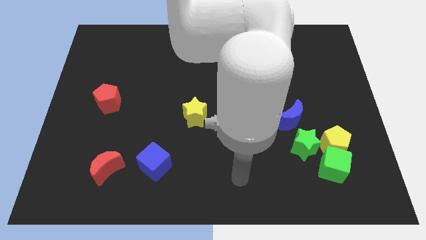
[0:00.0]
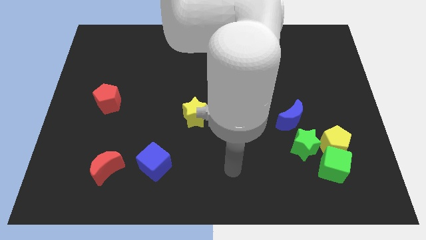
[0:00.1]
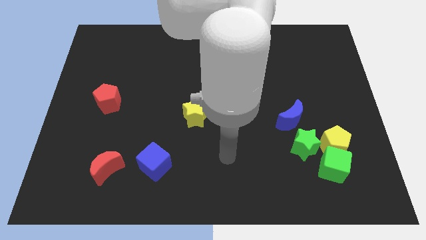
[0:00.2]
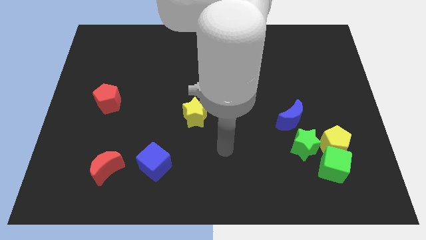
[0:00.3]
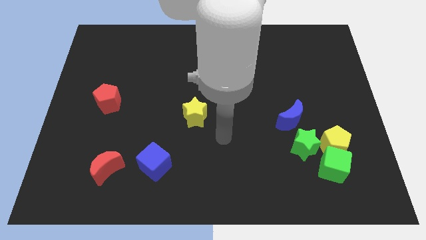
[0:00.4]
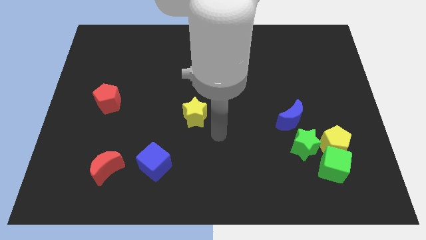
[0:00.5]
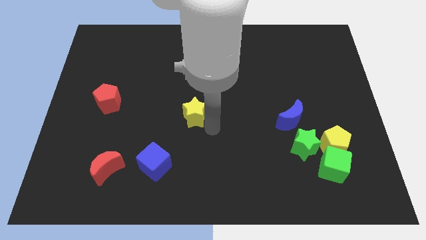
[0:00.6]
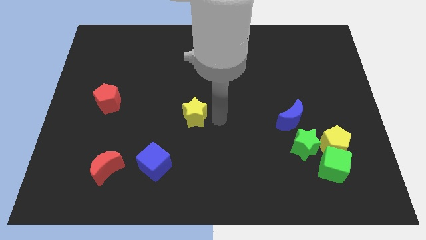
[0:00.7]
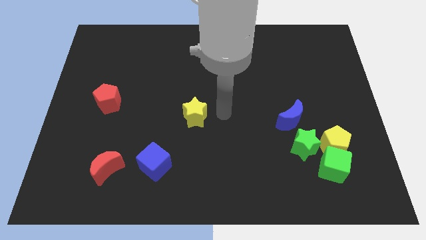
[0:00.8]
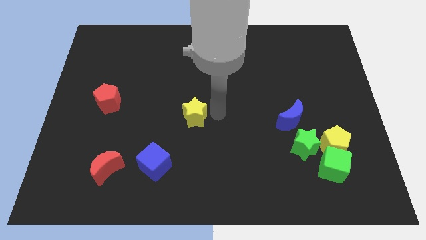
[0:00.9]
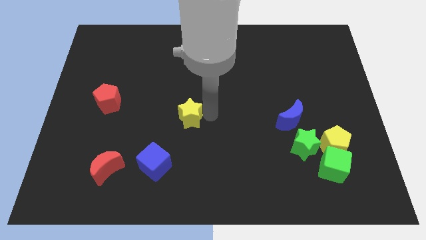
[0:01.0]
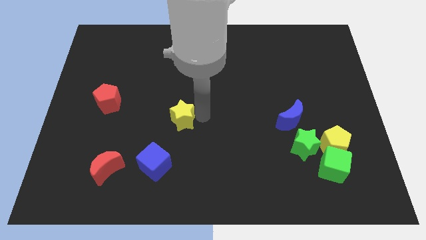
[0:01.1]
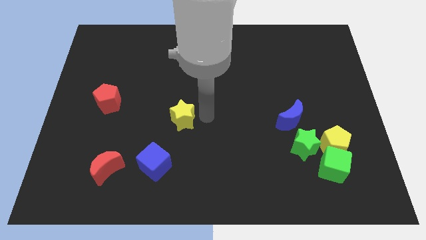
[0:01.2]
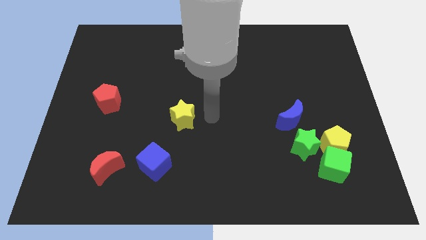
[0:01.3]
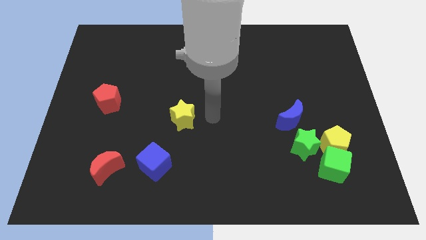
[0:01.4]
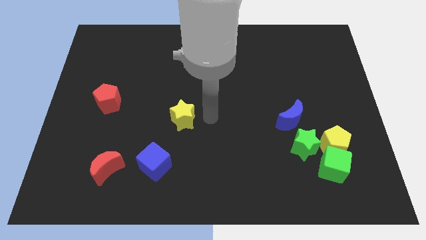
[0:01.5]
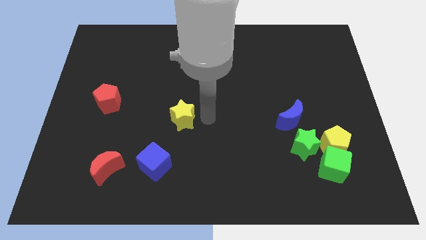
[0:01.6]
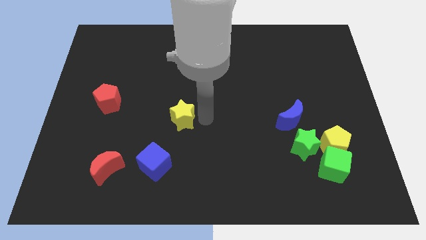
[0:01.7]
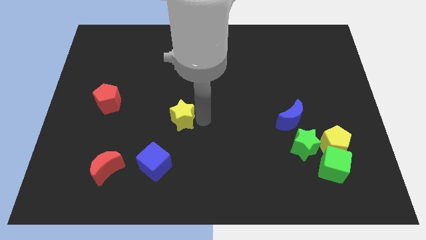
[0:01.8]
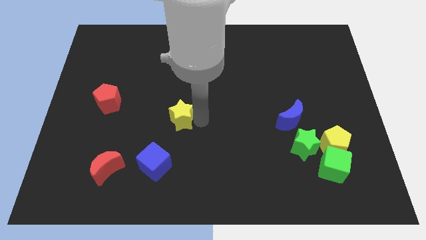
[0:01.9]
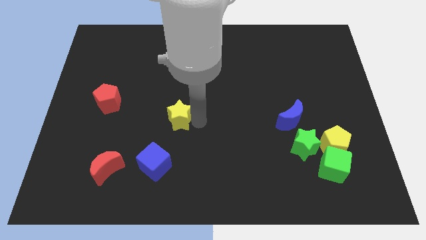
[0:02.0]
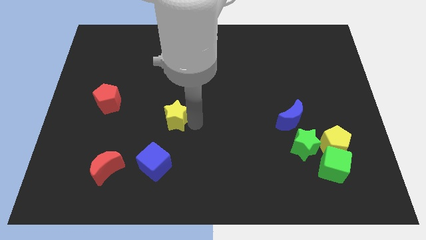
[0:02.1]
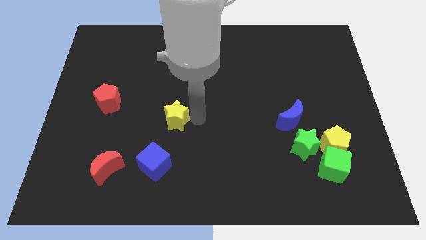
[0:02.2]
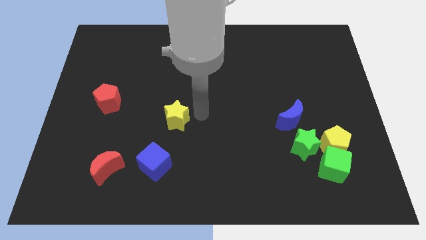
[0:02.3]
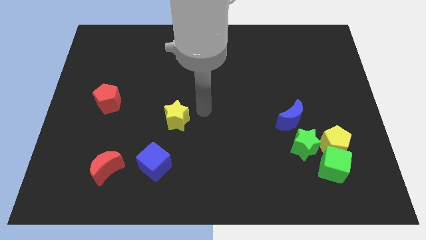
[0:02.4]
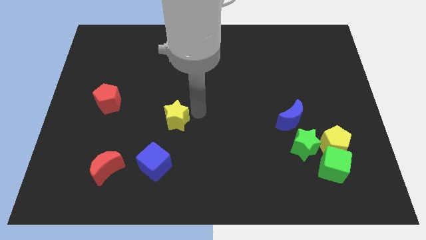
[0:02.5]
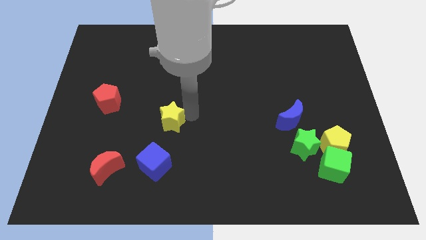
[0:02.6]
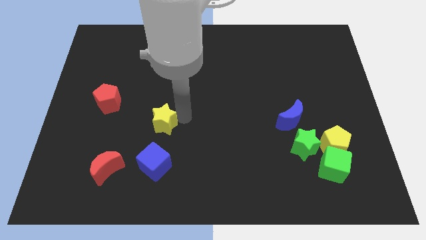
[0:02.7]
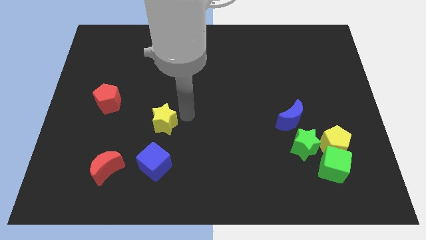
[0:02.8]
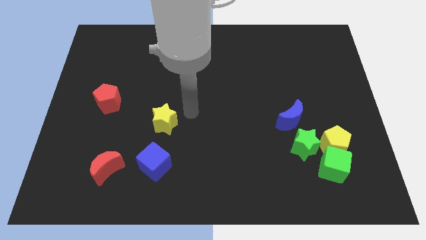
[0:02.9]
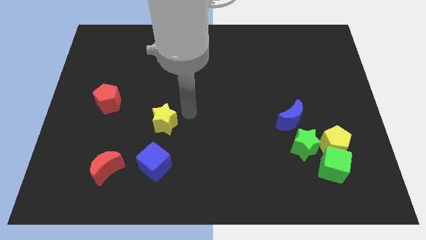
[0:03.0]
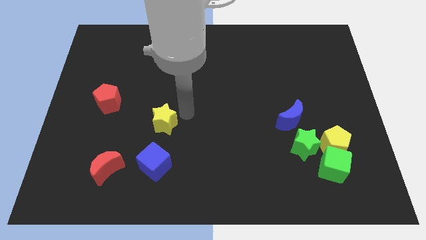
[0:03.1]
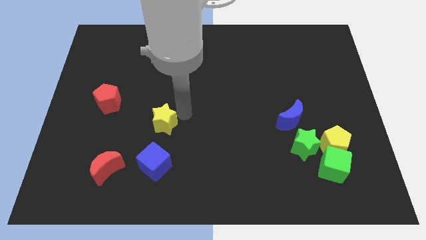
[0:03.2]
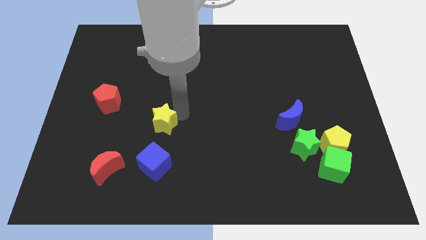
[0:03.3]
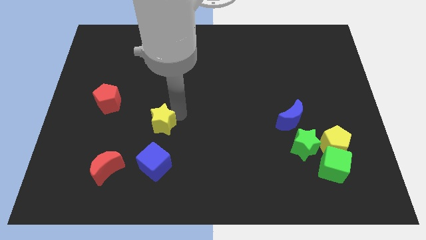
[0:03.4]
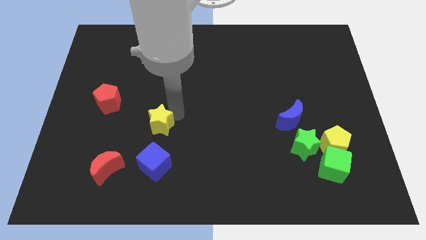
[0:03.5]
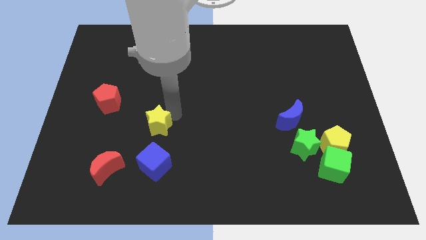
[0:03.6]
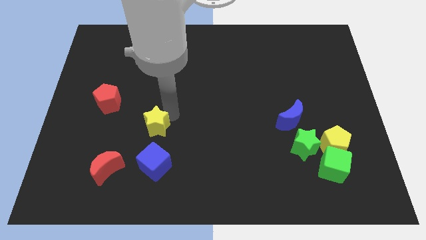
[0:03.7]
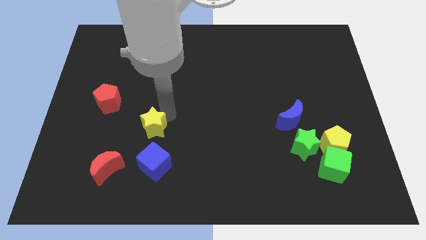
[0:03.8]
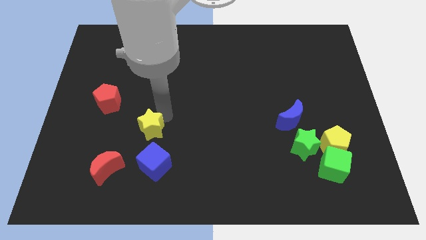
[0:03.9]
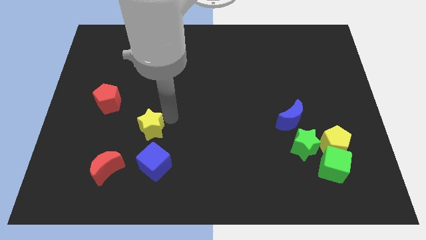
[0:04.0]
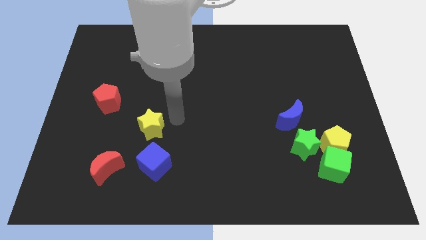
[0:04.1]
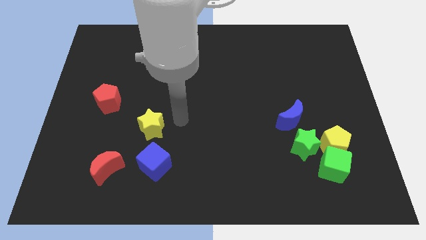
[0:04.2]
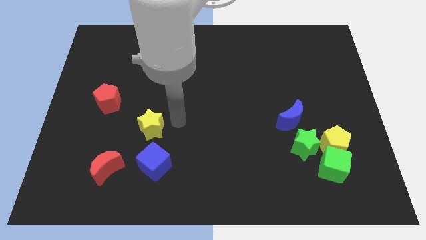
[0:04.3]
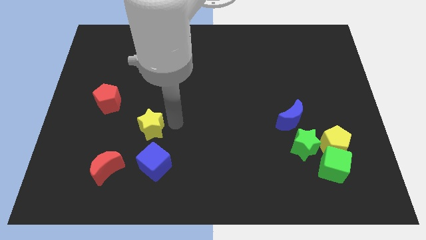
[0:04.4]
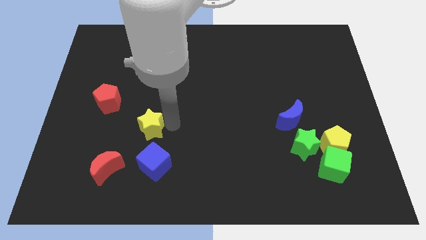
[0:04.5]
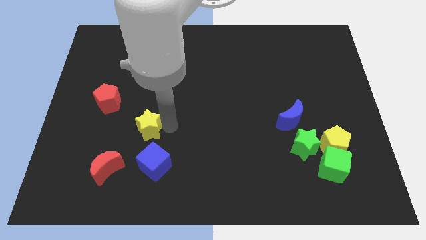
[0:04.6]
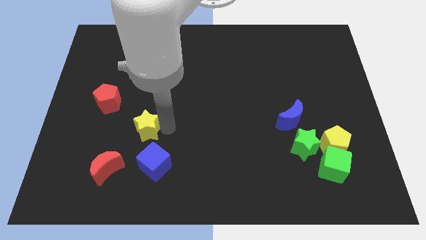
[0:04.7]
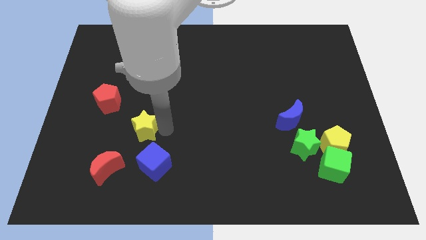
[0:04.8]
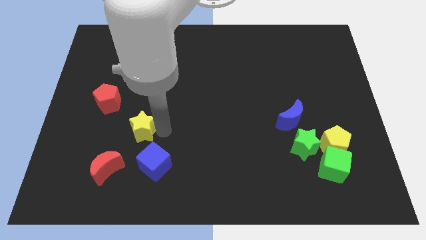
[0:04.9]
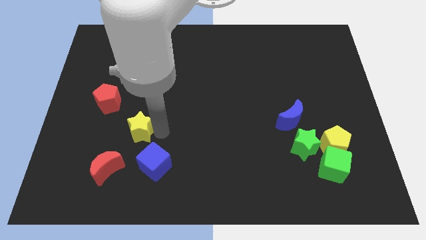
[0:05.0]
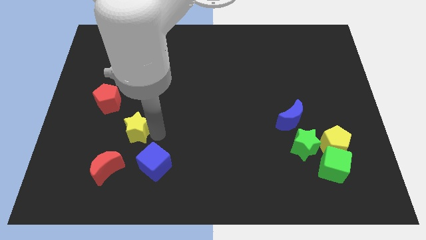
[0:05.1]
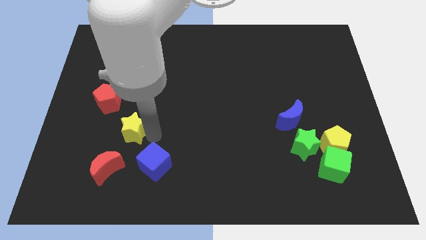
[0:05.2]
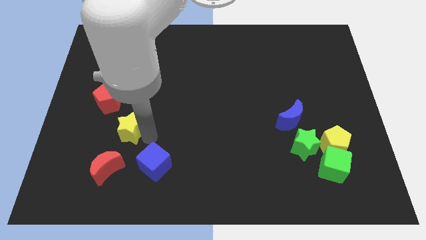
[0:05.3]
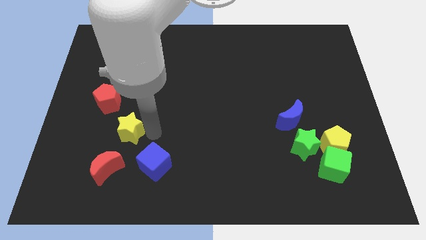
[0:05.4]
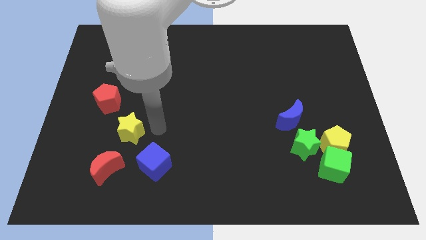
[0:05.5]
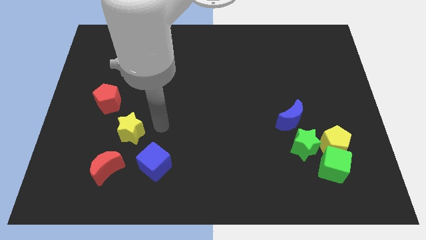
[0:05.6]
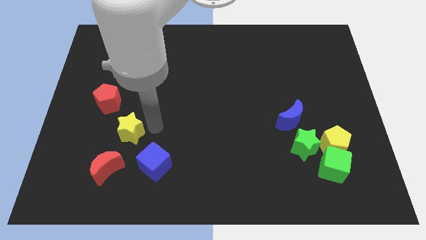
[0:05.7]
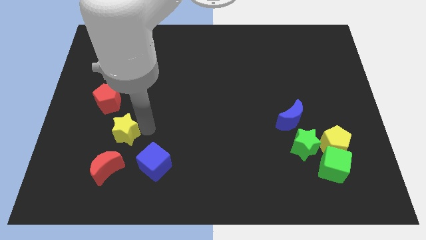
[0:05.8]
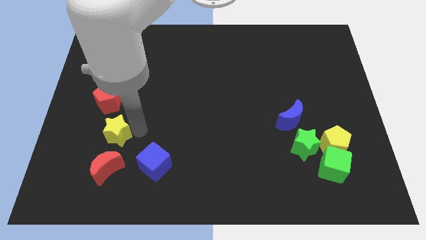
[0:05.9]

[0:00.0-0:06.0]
put the yellow star to the bottom of the red pentagon

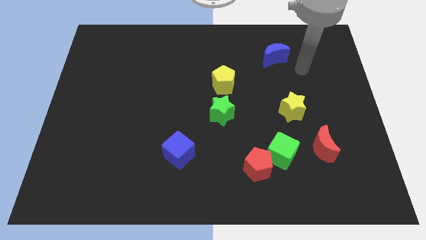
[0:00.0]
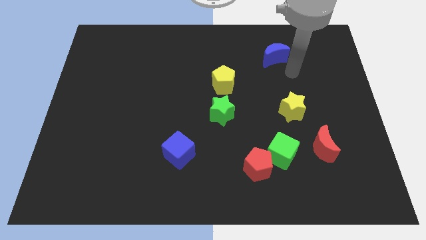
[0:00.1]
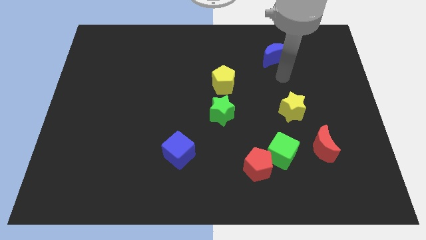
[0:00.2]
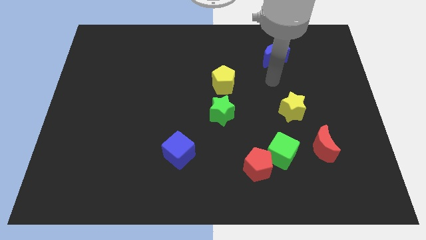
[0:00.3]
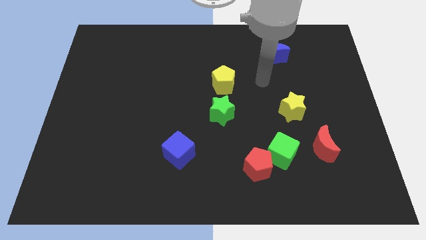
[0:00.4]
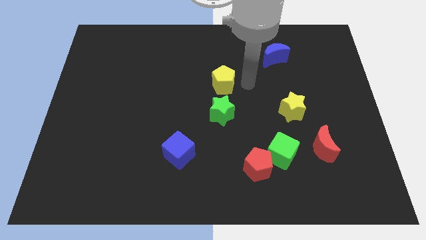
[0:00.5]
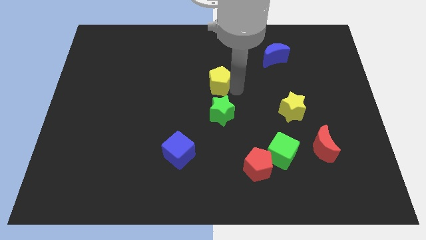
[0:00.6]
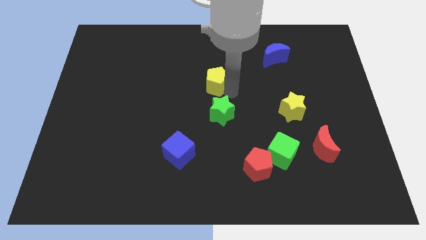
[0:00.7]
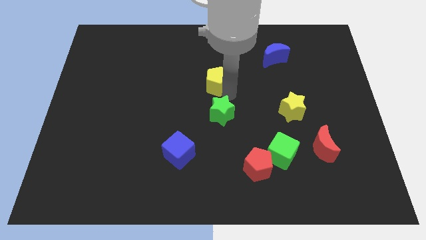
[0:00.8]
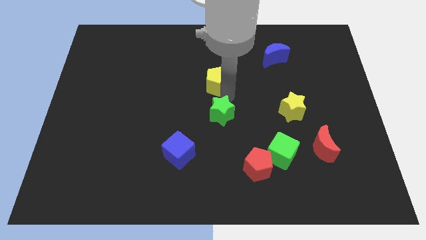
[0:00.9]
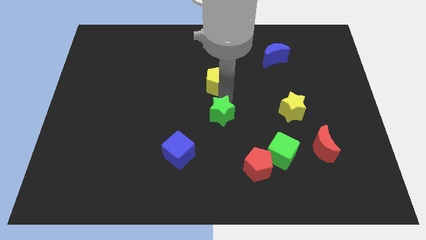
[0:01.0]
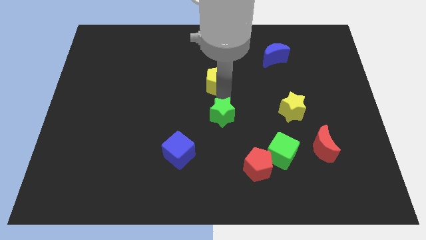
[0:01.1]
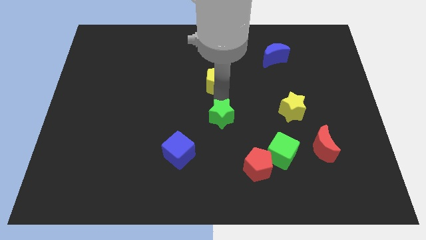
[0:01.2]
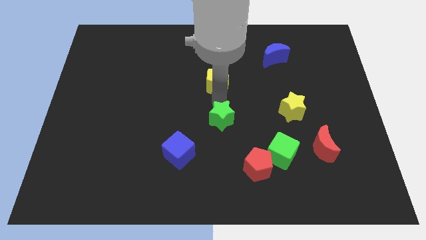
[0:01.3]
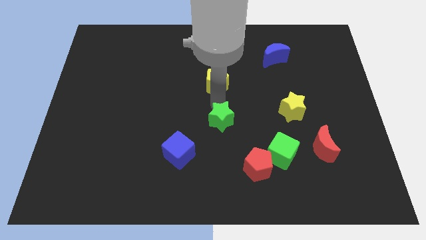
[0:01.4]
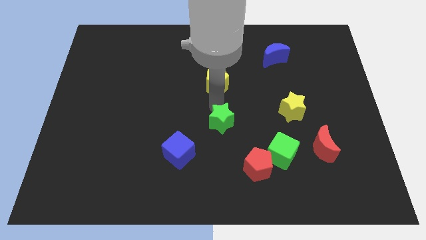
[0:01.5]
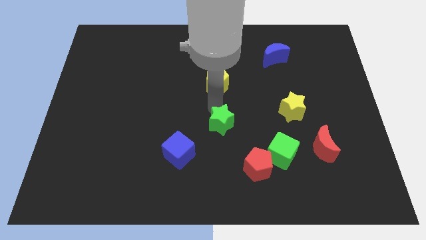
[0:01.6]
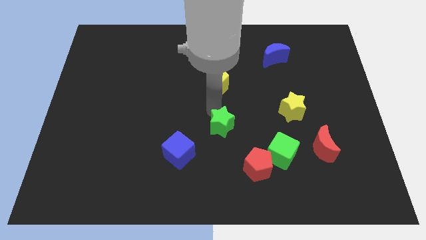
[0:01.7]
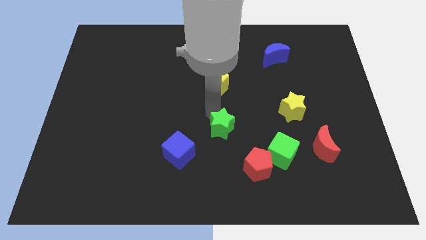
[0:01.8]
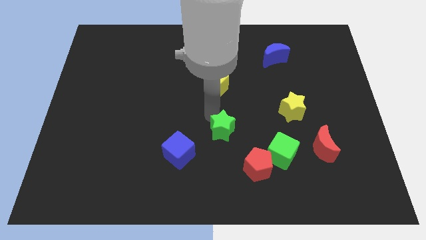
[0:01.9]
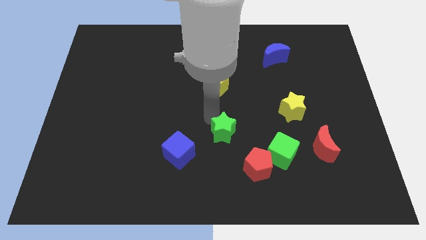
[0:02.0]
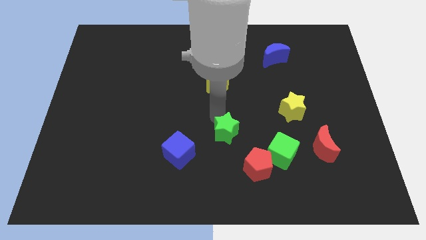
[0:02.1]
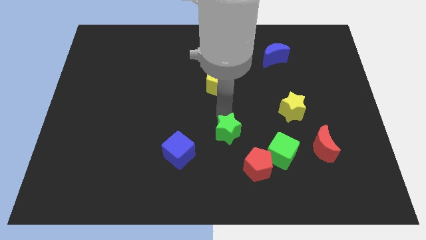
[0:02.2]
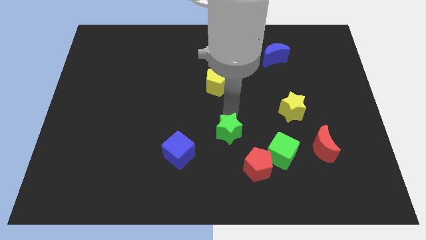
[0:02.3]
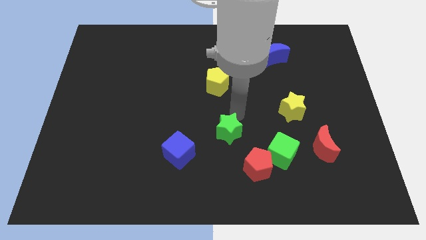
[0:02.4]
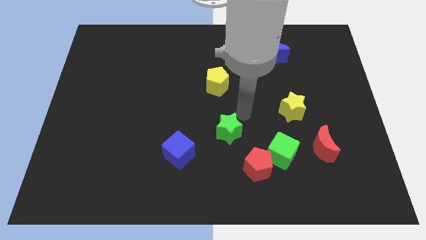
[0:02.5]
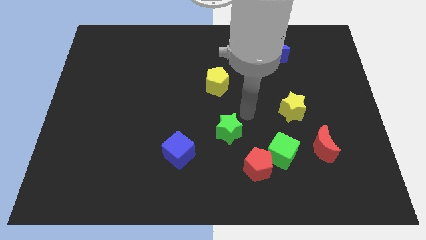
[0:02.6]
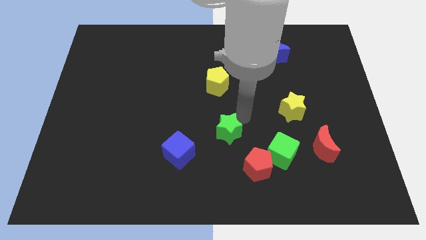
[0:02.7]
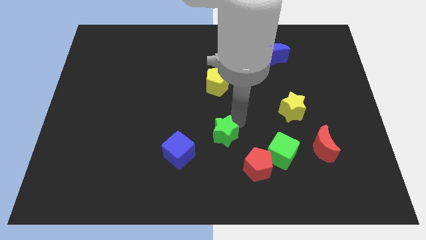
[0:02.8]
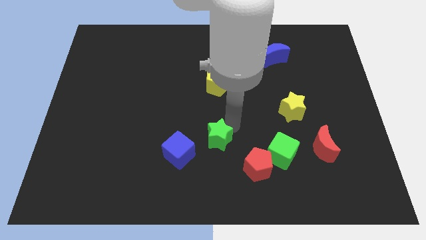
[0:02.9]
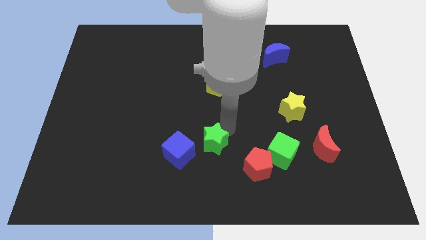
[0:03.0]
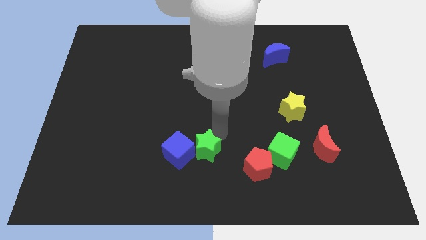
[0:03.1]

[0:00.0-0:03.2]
push the green star to the bottom right side of the blue cube
